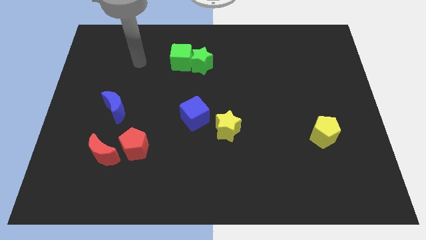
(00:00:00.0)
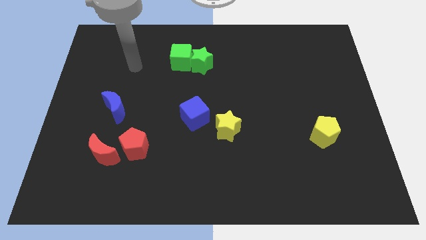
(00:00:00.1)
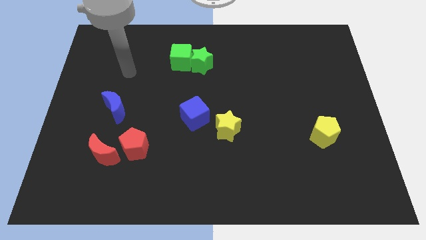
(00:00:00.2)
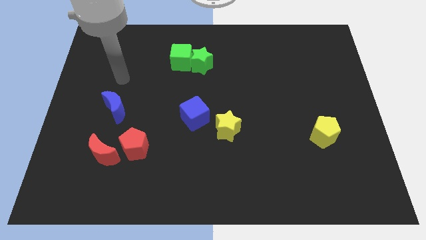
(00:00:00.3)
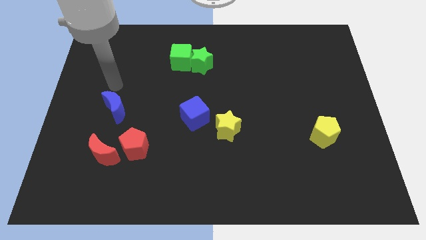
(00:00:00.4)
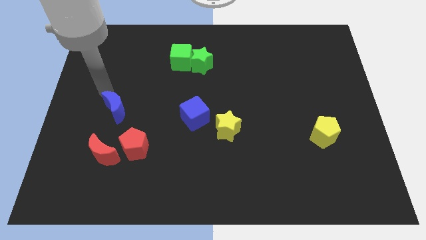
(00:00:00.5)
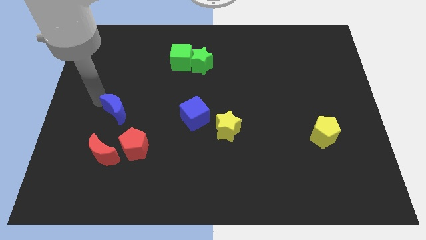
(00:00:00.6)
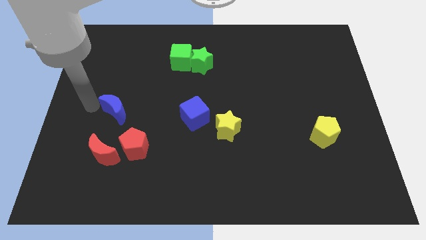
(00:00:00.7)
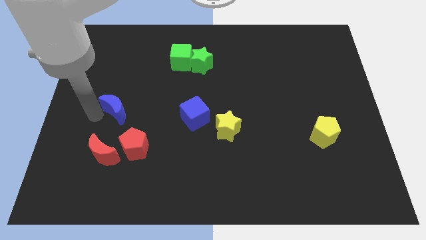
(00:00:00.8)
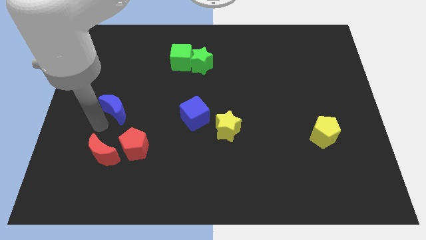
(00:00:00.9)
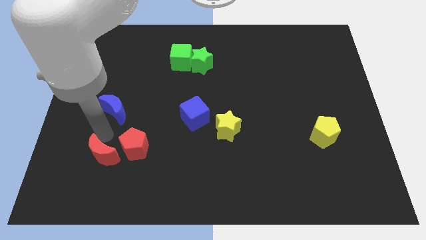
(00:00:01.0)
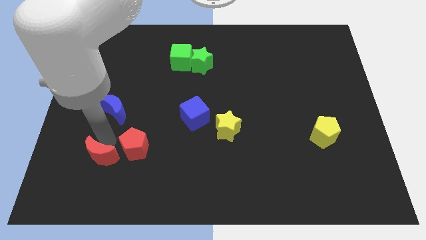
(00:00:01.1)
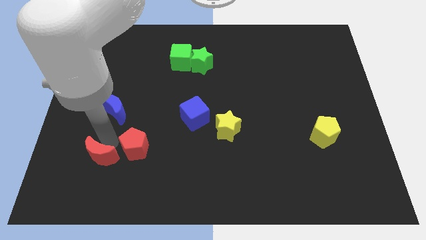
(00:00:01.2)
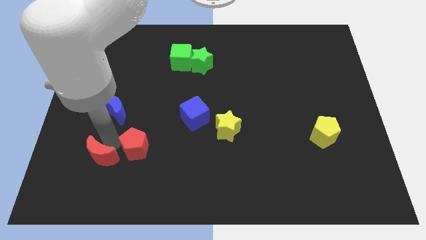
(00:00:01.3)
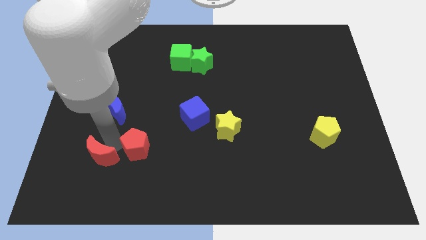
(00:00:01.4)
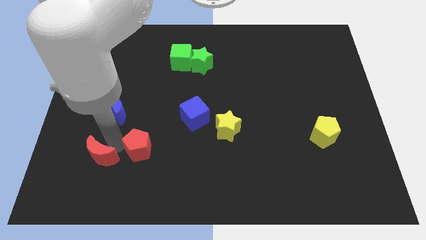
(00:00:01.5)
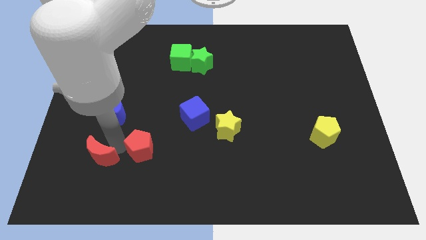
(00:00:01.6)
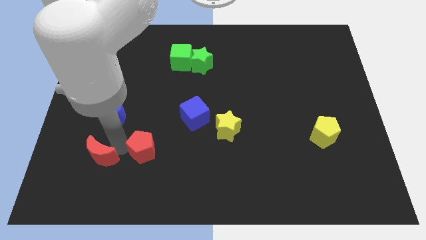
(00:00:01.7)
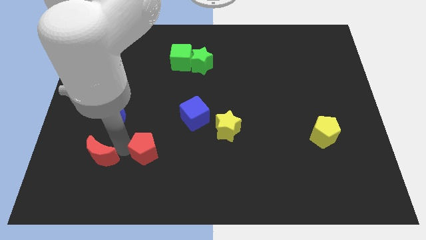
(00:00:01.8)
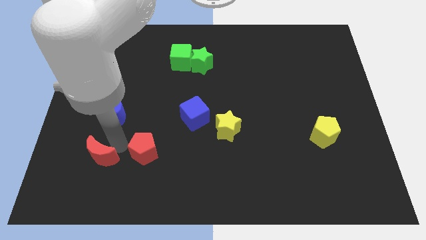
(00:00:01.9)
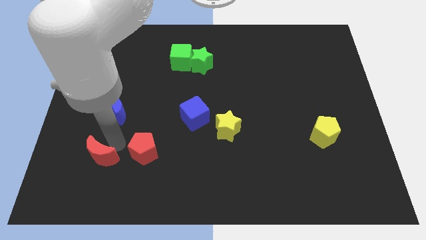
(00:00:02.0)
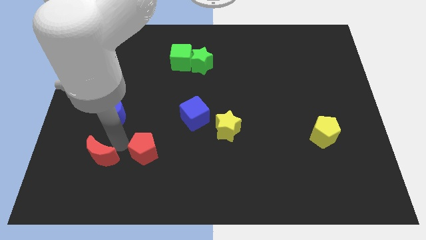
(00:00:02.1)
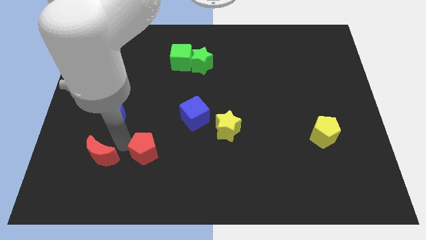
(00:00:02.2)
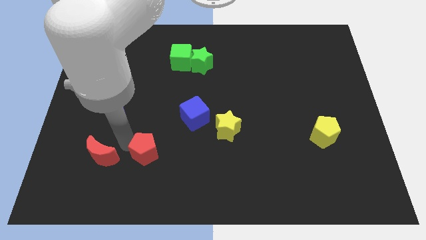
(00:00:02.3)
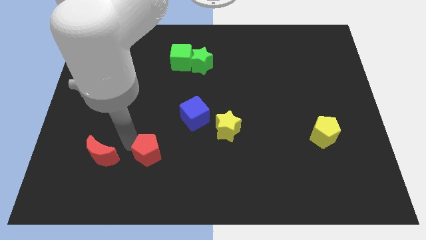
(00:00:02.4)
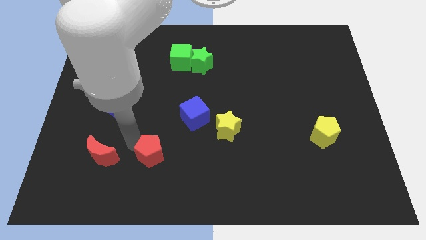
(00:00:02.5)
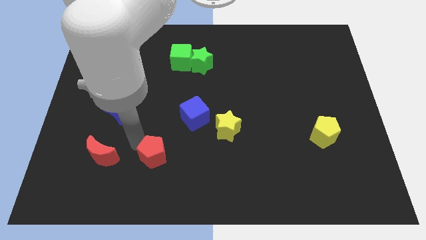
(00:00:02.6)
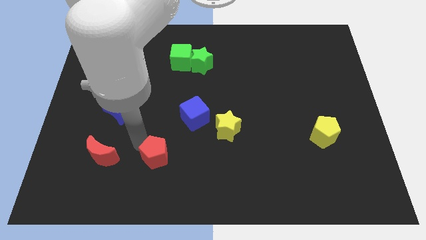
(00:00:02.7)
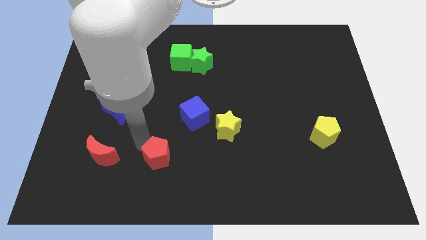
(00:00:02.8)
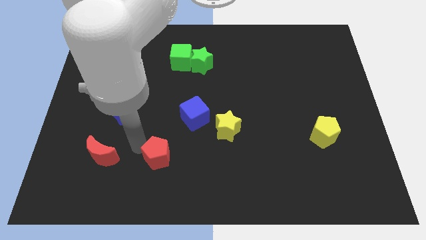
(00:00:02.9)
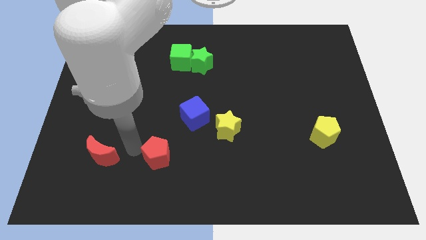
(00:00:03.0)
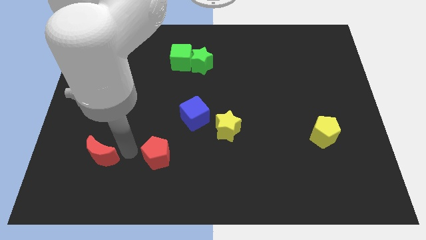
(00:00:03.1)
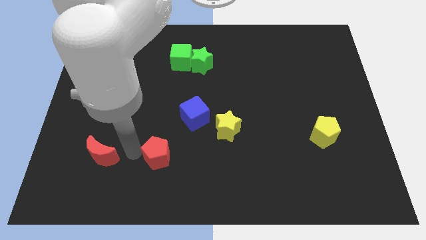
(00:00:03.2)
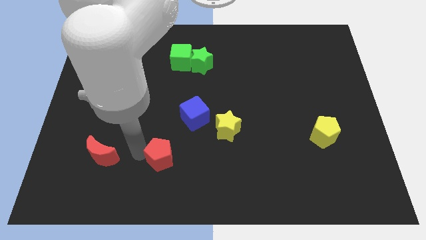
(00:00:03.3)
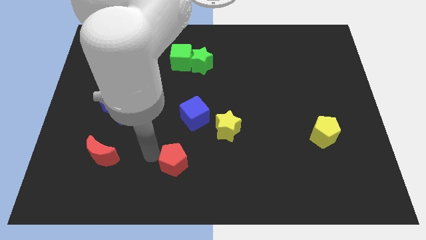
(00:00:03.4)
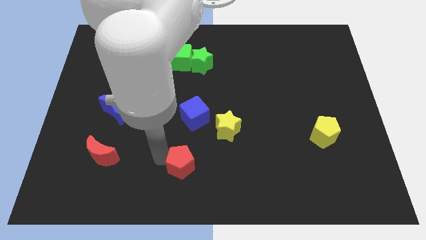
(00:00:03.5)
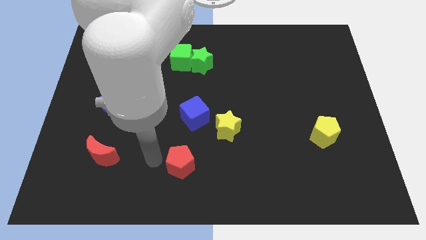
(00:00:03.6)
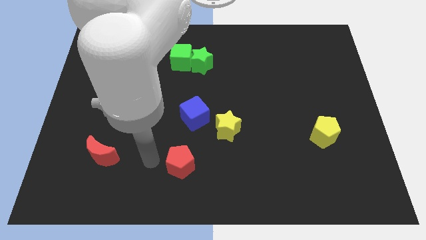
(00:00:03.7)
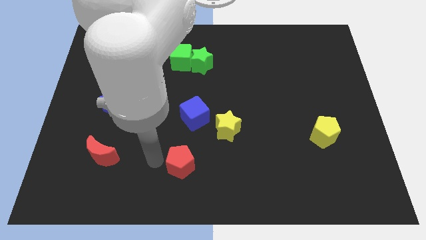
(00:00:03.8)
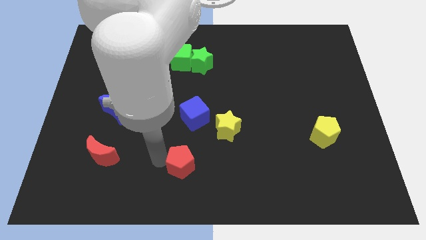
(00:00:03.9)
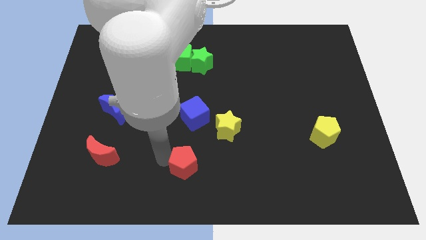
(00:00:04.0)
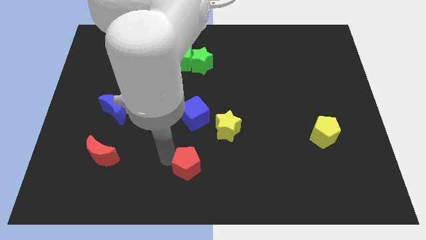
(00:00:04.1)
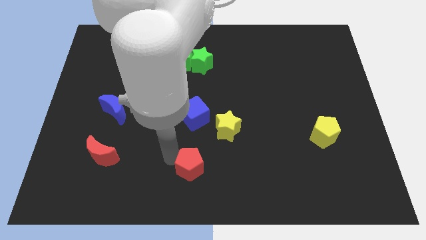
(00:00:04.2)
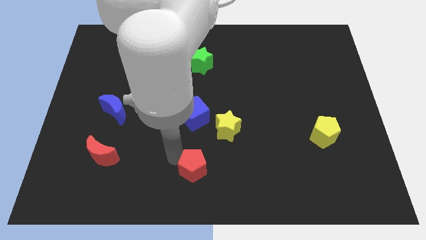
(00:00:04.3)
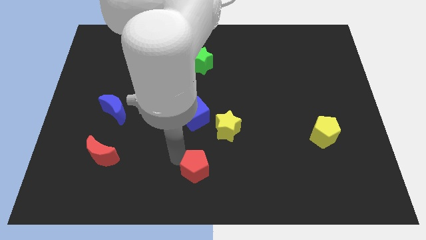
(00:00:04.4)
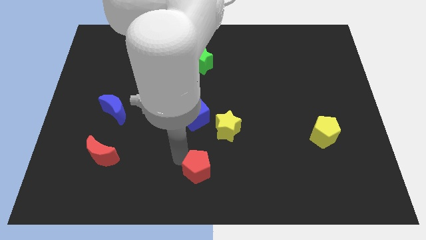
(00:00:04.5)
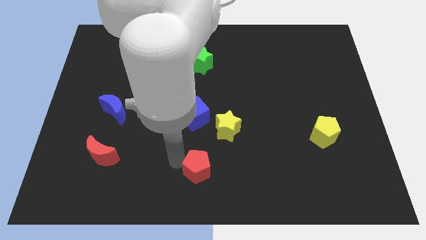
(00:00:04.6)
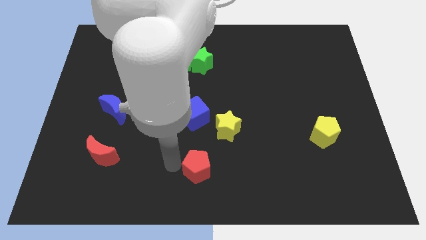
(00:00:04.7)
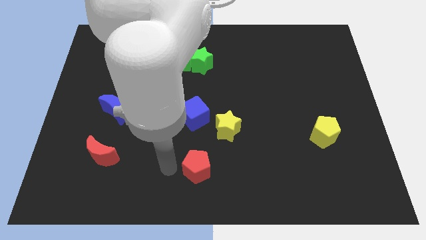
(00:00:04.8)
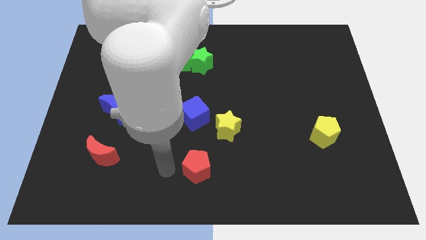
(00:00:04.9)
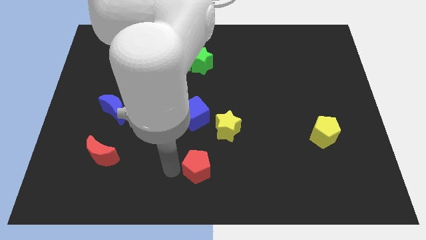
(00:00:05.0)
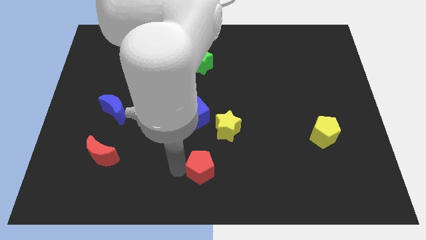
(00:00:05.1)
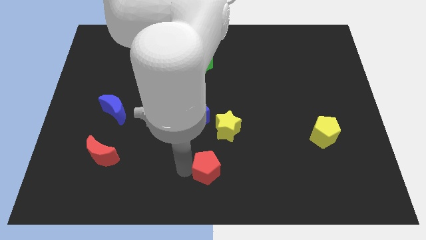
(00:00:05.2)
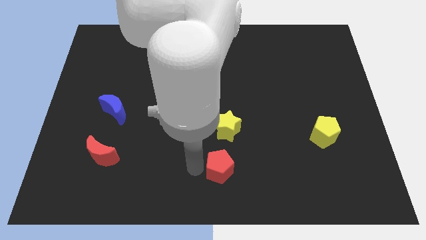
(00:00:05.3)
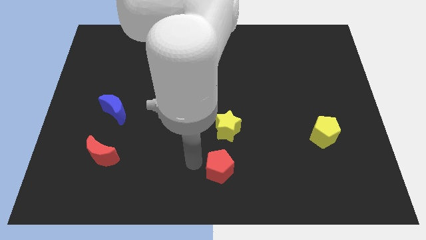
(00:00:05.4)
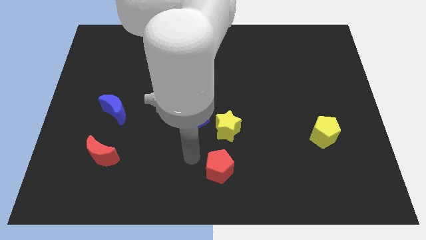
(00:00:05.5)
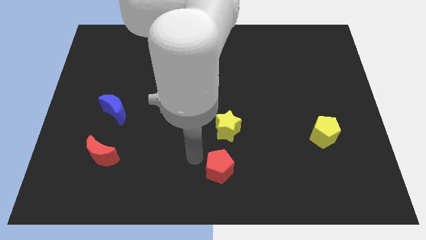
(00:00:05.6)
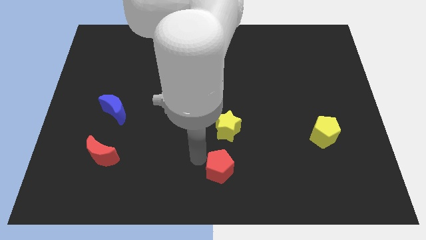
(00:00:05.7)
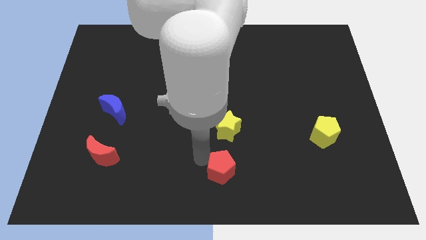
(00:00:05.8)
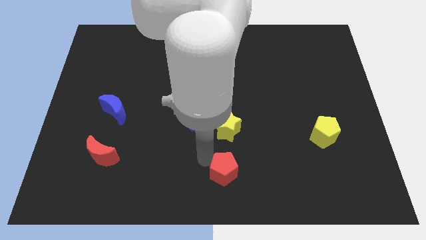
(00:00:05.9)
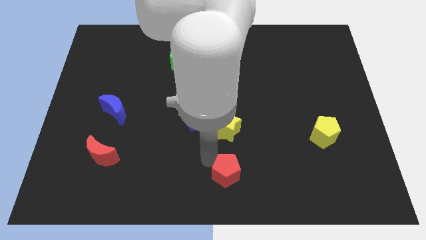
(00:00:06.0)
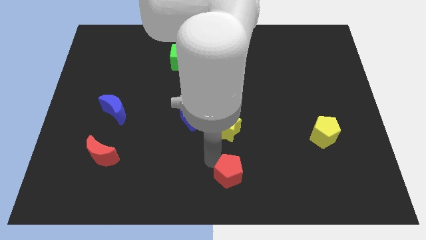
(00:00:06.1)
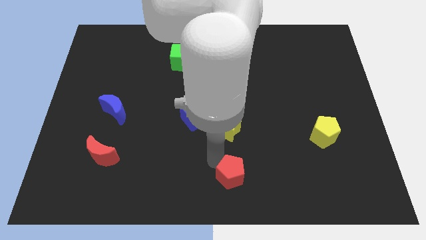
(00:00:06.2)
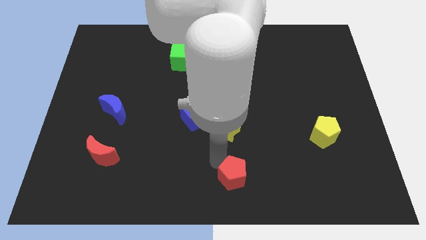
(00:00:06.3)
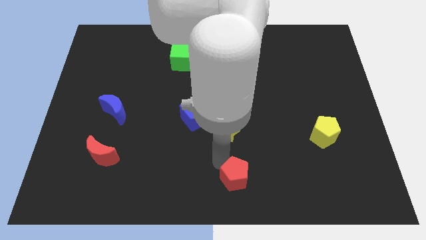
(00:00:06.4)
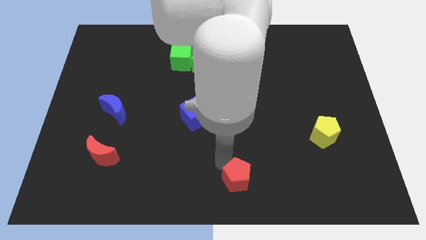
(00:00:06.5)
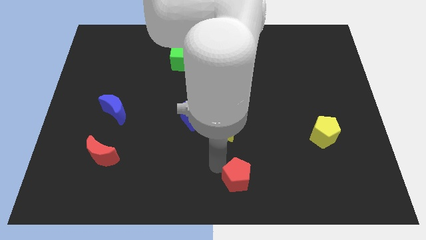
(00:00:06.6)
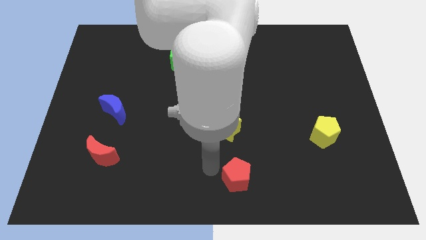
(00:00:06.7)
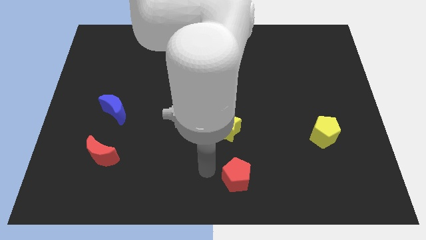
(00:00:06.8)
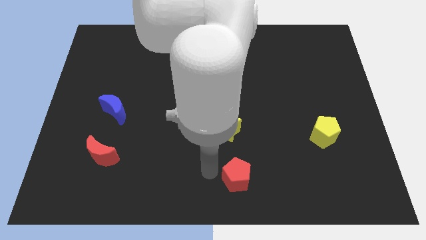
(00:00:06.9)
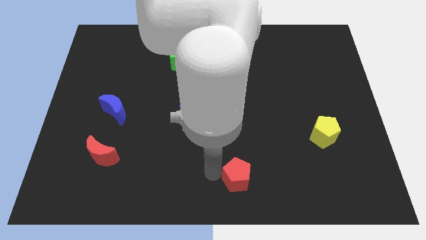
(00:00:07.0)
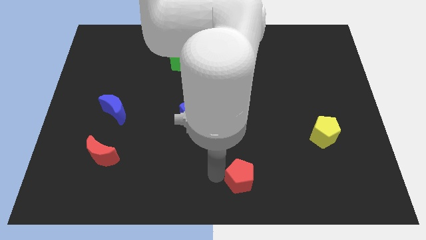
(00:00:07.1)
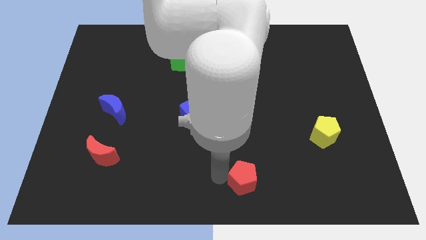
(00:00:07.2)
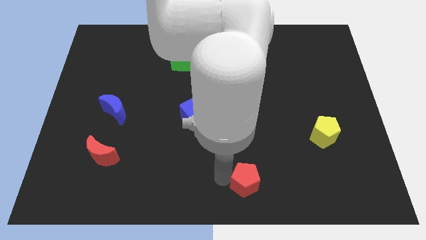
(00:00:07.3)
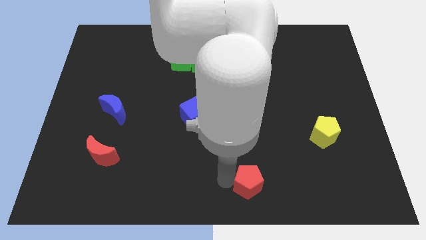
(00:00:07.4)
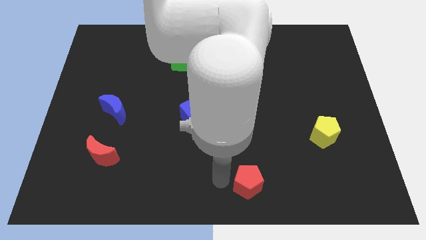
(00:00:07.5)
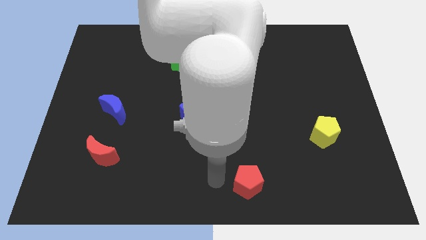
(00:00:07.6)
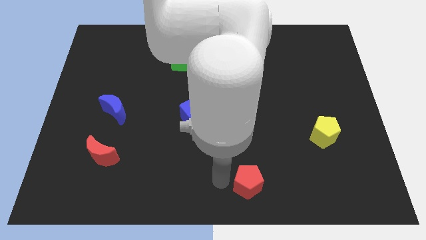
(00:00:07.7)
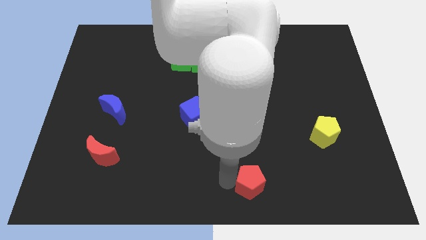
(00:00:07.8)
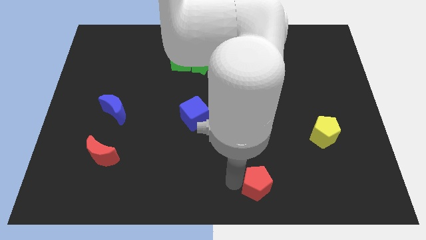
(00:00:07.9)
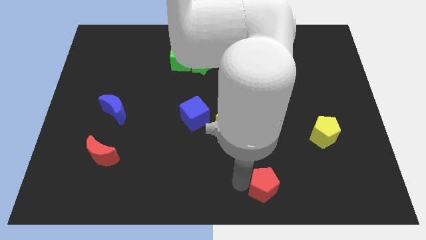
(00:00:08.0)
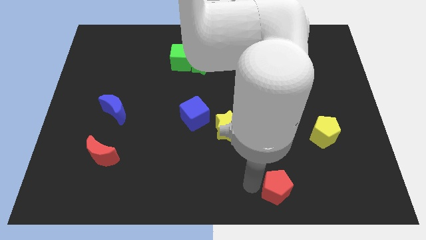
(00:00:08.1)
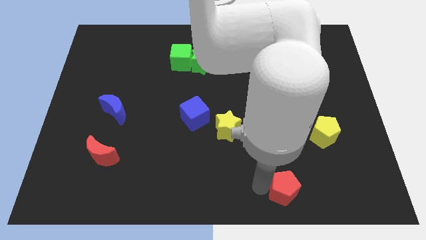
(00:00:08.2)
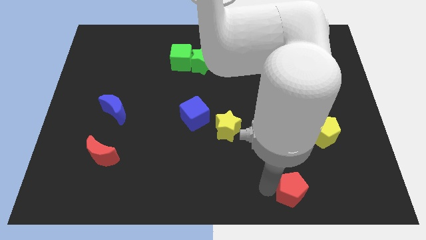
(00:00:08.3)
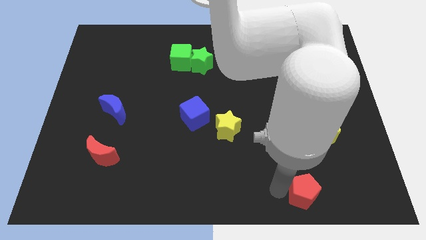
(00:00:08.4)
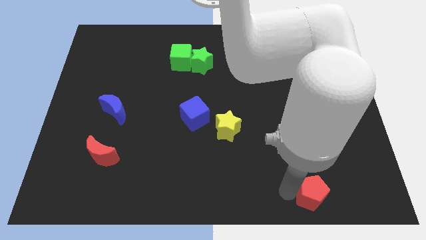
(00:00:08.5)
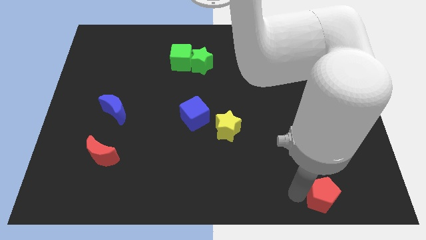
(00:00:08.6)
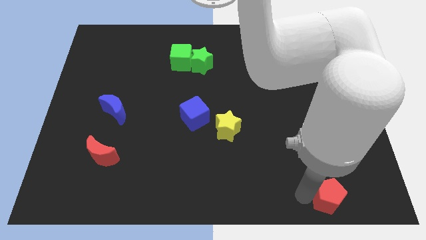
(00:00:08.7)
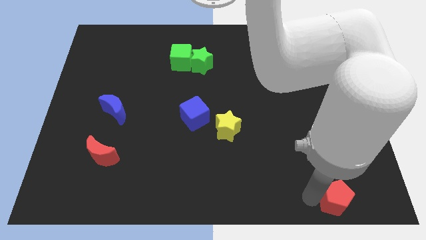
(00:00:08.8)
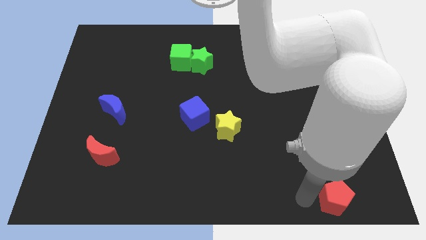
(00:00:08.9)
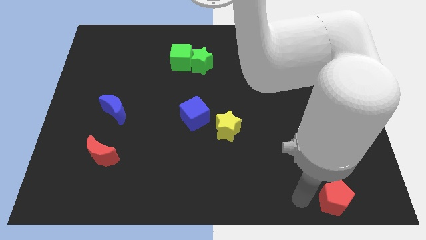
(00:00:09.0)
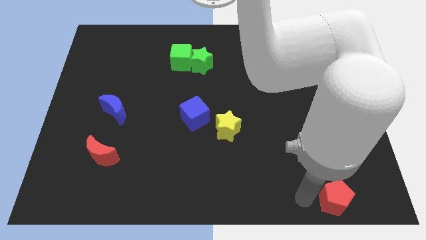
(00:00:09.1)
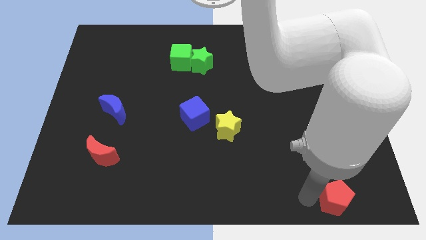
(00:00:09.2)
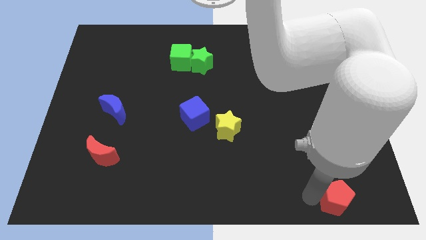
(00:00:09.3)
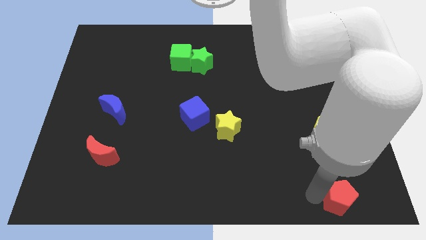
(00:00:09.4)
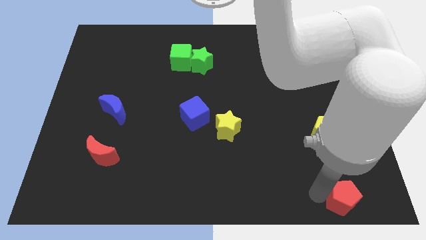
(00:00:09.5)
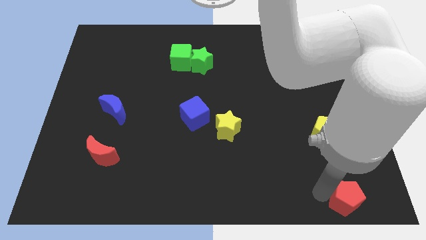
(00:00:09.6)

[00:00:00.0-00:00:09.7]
push the red pentagon to the lower right corner
